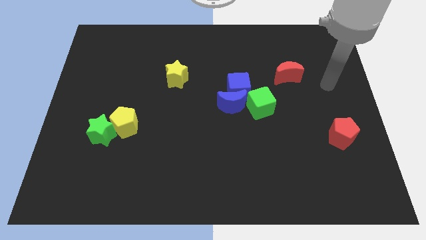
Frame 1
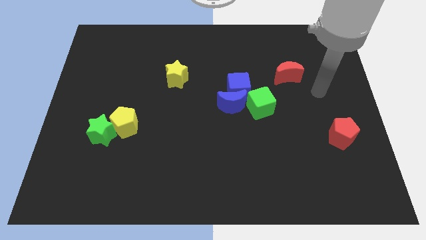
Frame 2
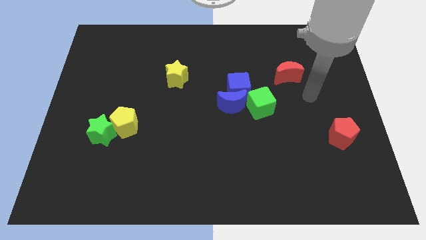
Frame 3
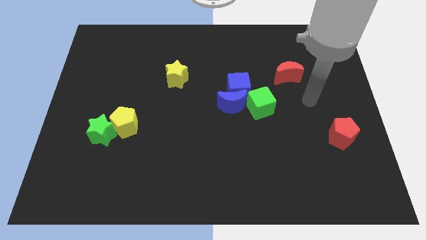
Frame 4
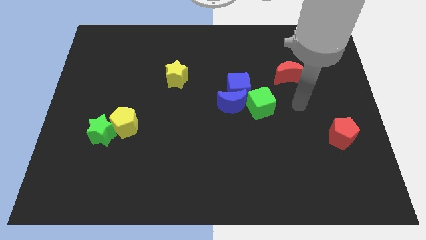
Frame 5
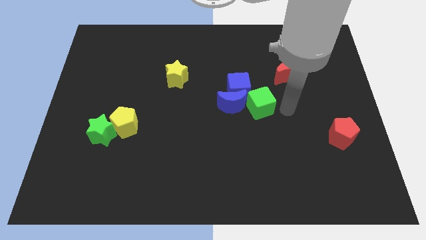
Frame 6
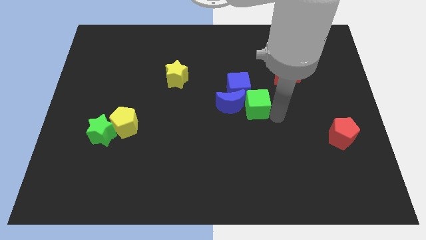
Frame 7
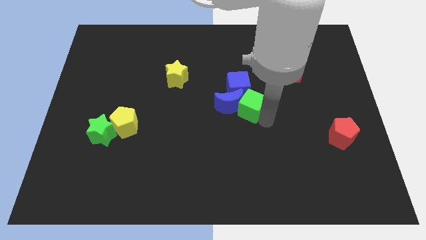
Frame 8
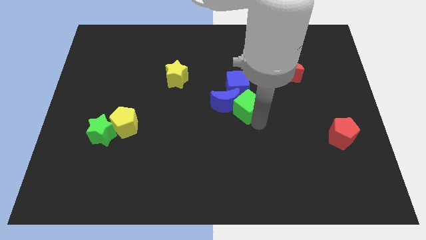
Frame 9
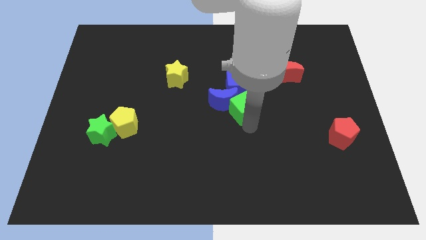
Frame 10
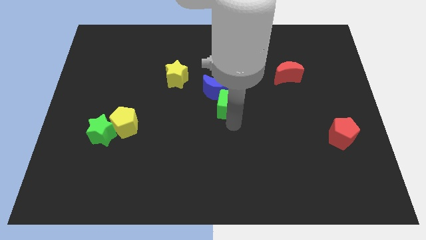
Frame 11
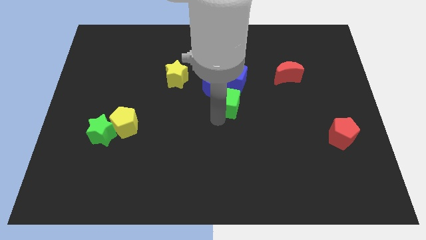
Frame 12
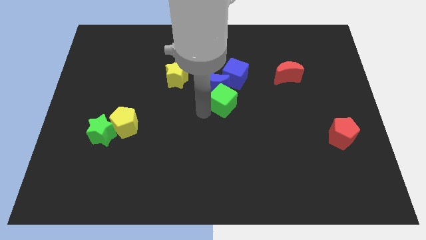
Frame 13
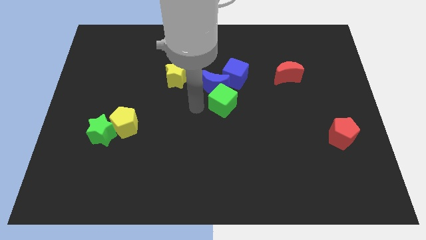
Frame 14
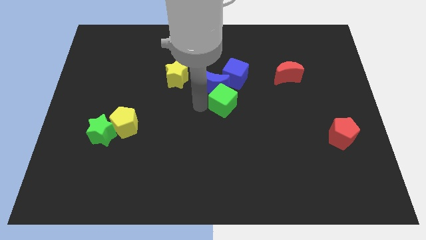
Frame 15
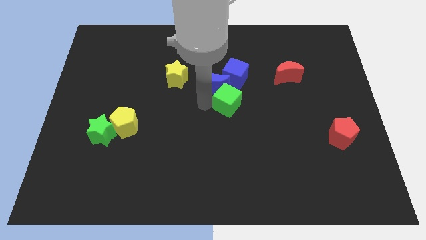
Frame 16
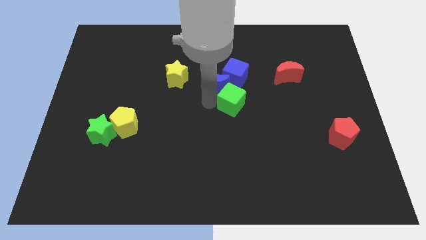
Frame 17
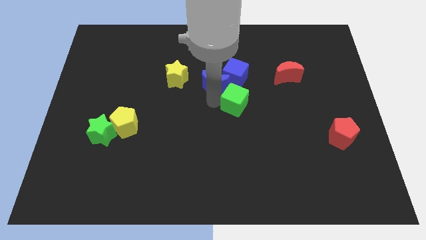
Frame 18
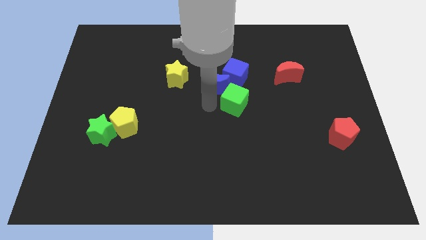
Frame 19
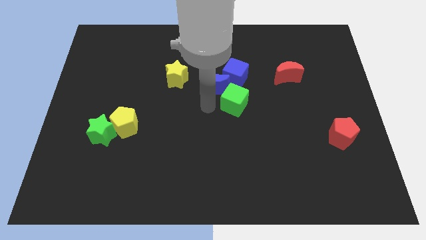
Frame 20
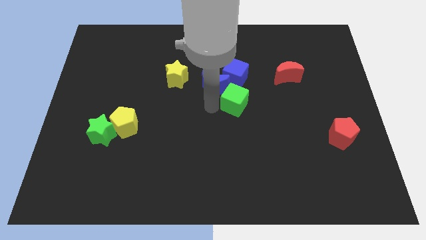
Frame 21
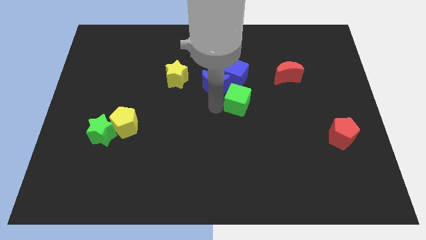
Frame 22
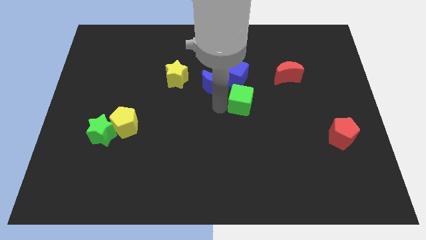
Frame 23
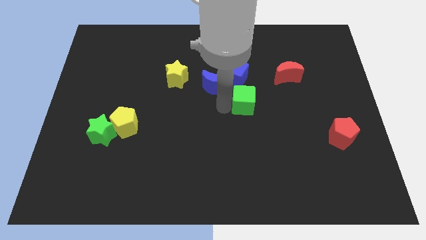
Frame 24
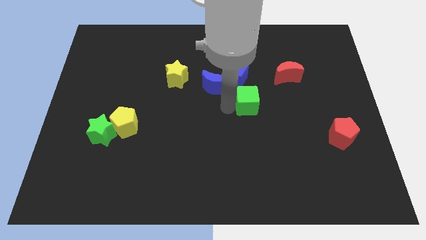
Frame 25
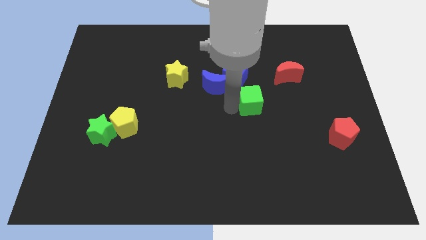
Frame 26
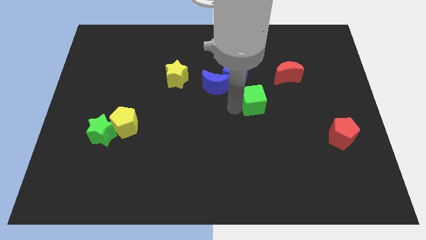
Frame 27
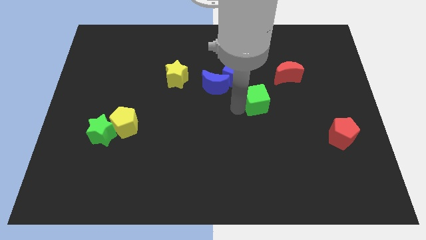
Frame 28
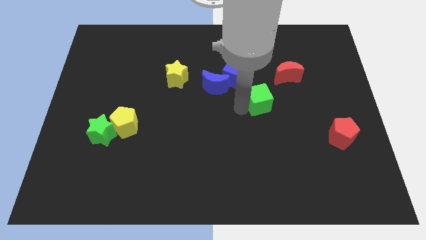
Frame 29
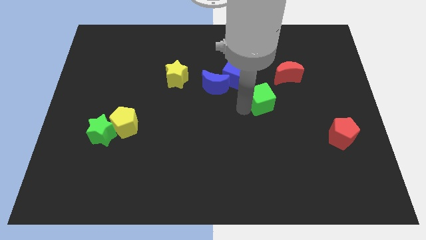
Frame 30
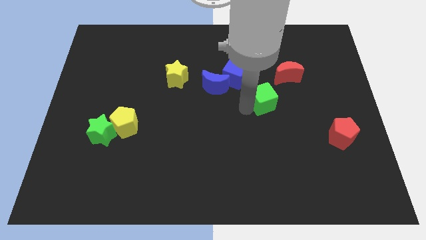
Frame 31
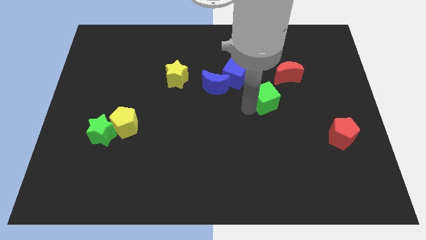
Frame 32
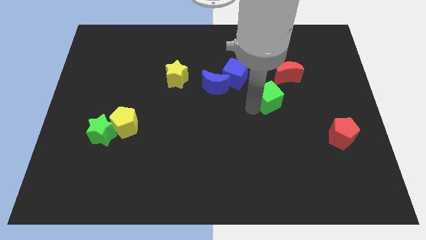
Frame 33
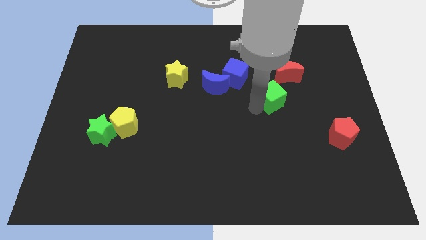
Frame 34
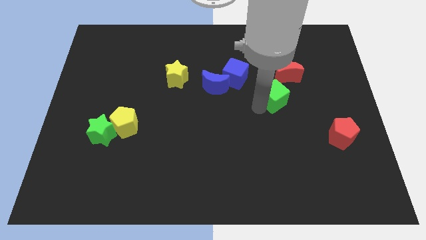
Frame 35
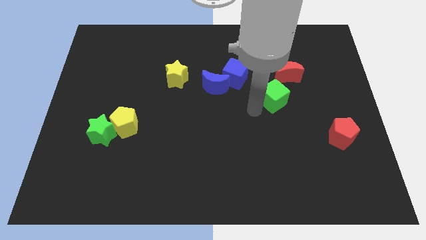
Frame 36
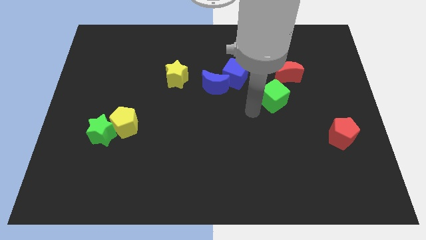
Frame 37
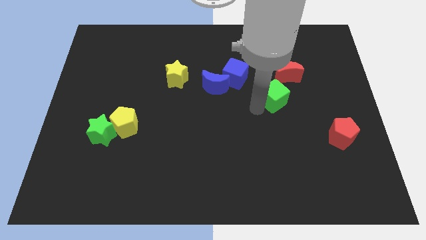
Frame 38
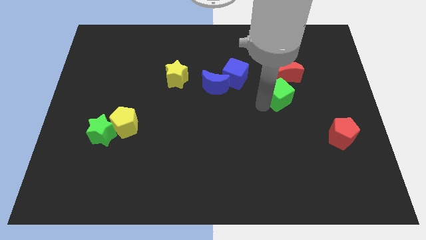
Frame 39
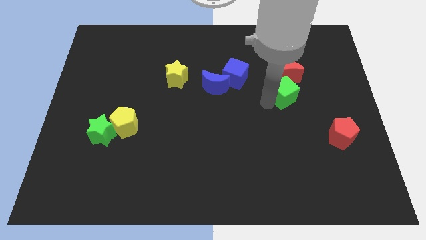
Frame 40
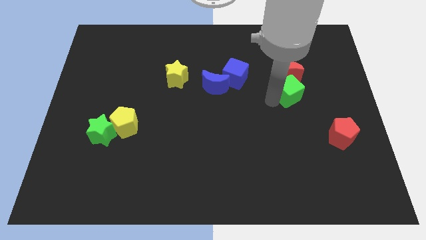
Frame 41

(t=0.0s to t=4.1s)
push the green cube up and right diagonally slightly

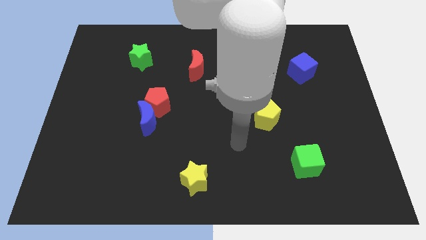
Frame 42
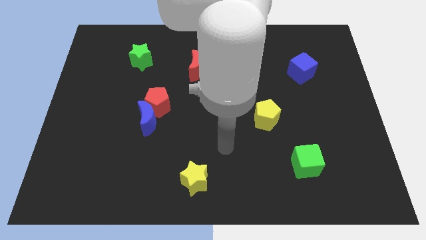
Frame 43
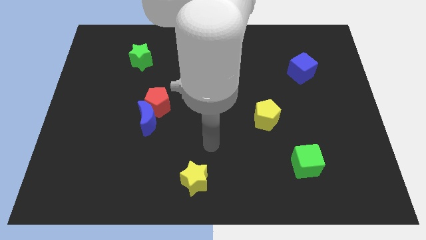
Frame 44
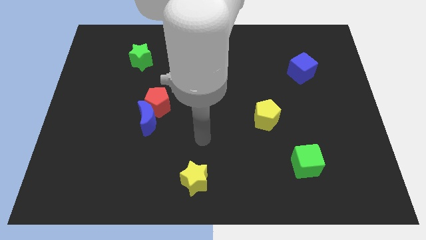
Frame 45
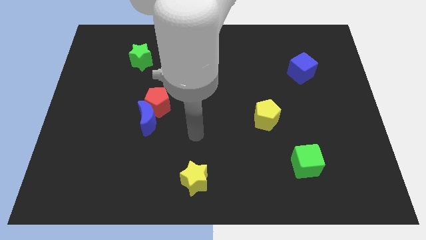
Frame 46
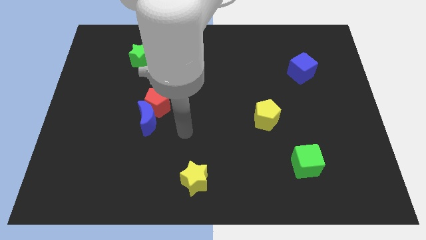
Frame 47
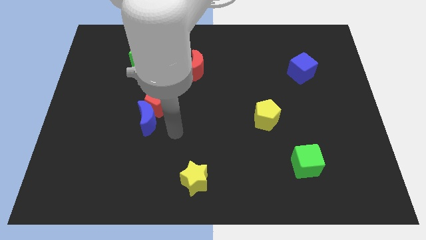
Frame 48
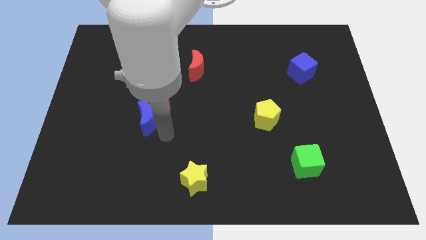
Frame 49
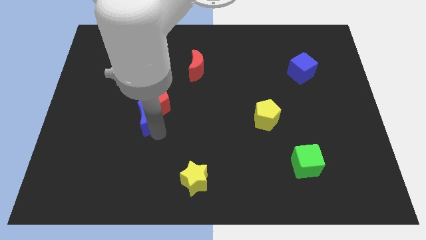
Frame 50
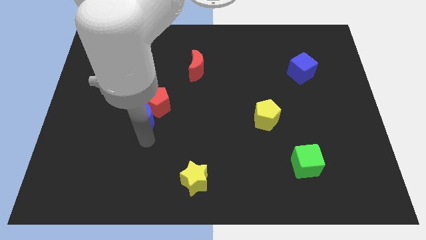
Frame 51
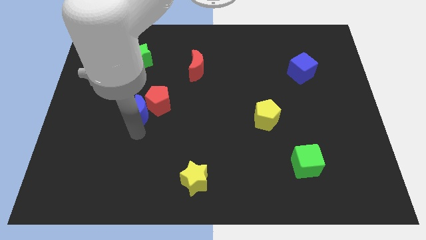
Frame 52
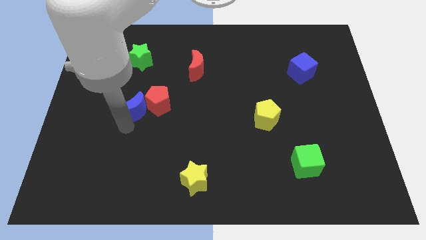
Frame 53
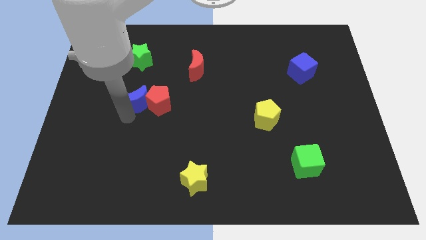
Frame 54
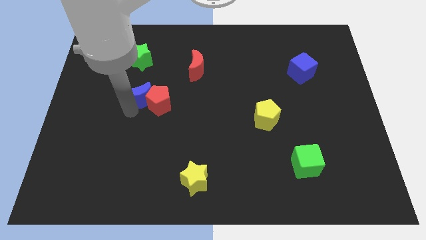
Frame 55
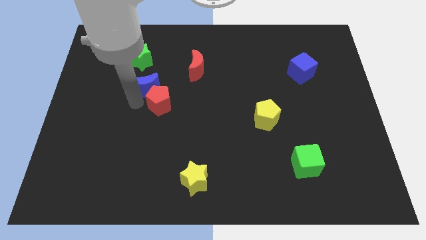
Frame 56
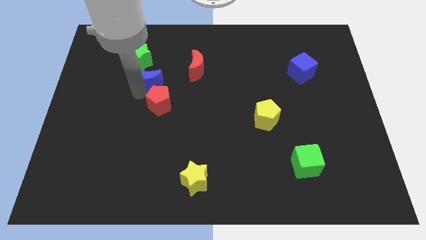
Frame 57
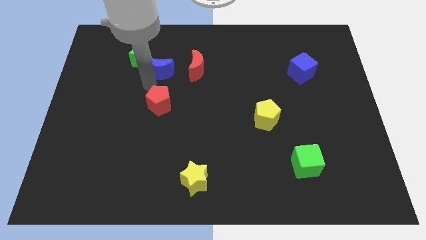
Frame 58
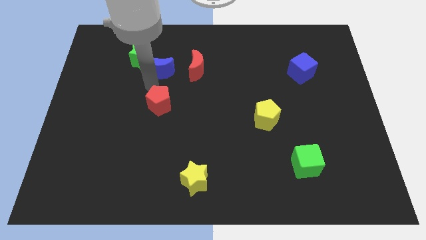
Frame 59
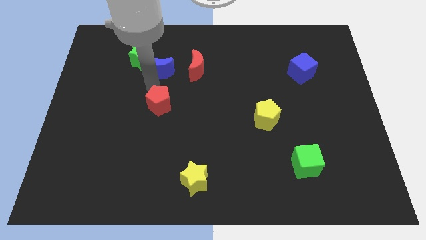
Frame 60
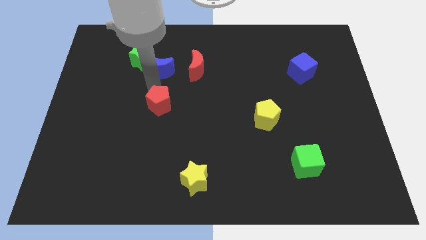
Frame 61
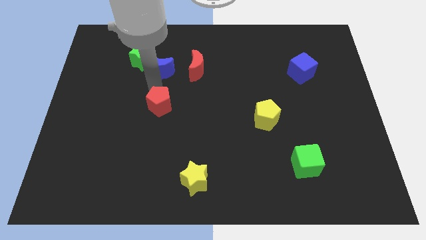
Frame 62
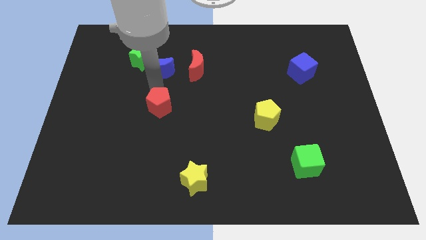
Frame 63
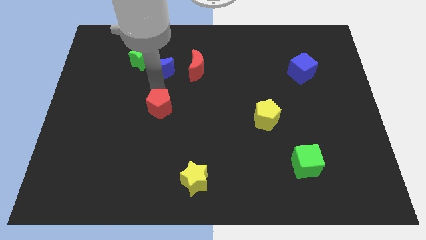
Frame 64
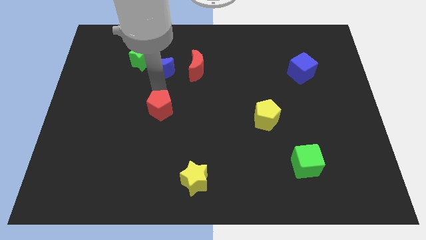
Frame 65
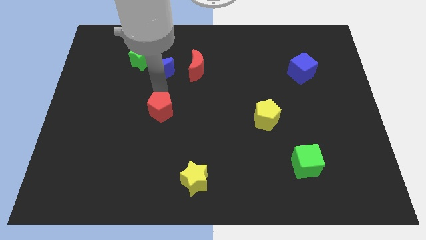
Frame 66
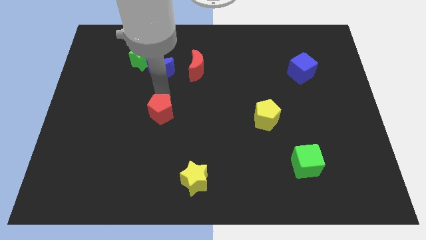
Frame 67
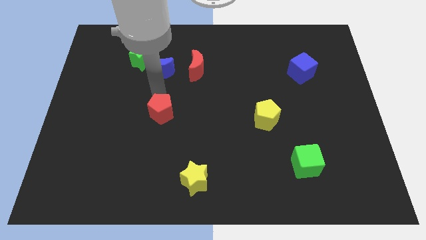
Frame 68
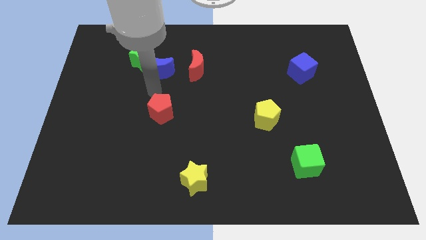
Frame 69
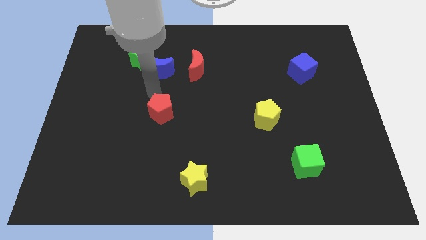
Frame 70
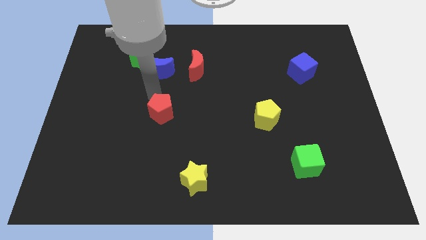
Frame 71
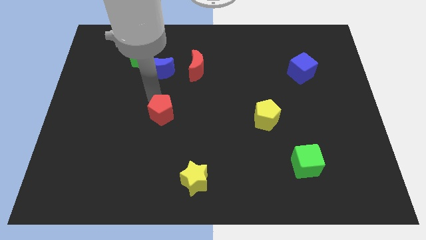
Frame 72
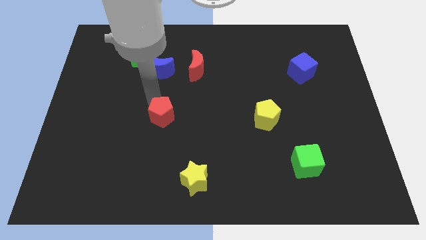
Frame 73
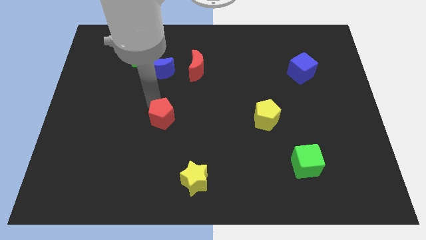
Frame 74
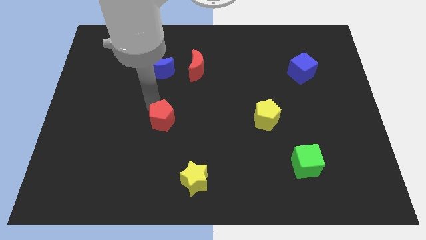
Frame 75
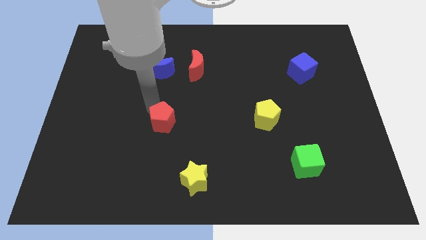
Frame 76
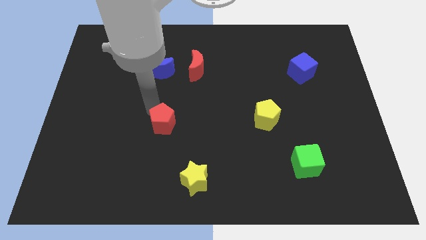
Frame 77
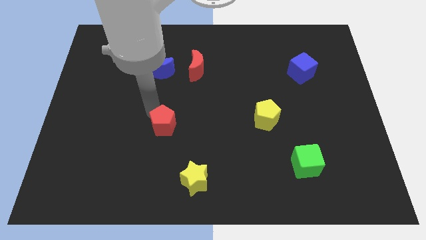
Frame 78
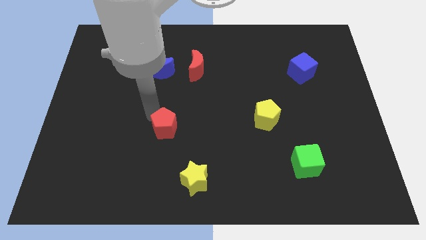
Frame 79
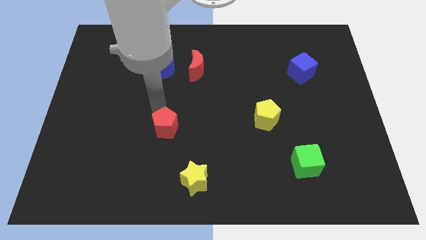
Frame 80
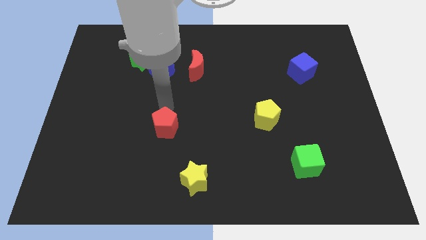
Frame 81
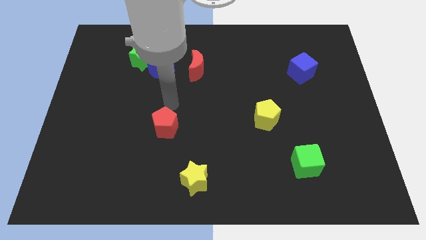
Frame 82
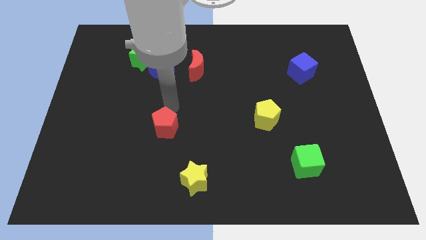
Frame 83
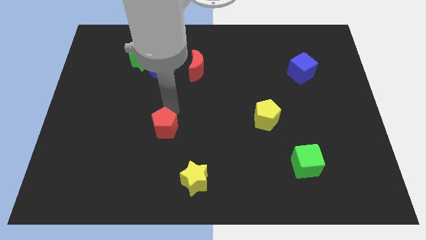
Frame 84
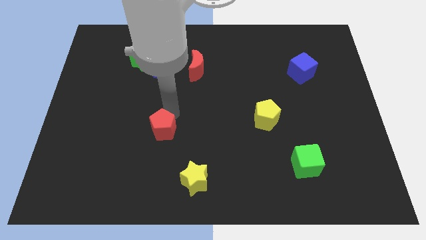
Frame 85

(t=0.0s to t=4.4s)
move the red pentagon somewhat down
